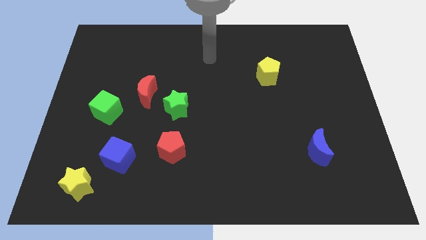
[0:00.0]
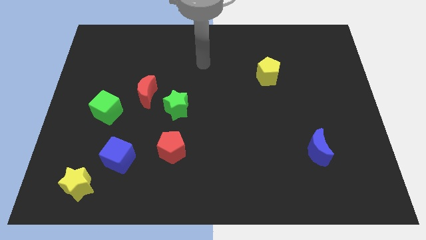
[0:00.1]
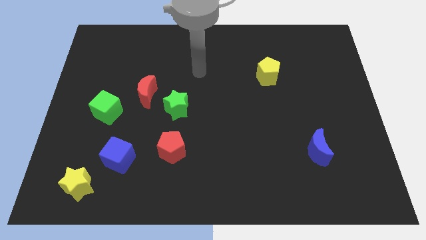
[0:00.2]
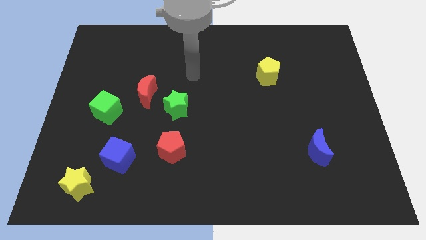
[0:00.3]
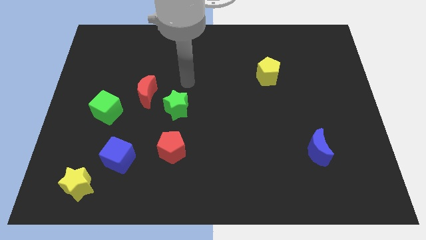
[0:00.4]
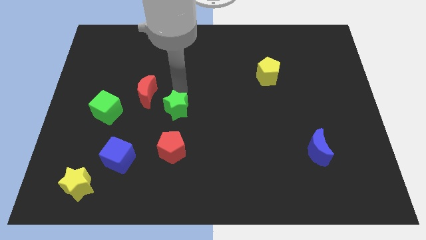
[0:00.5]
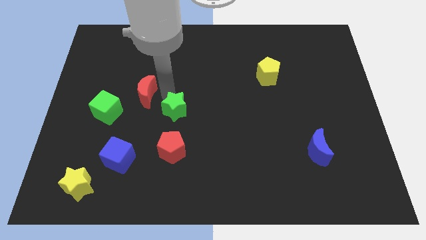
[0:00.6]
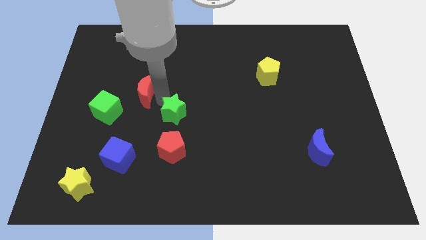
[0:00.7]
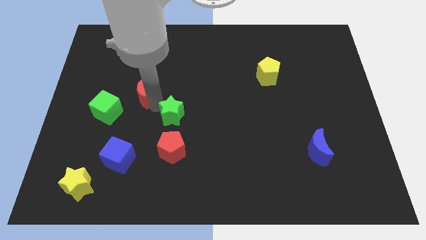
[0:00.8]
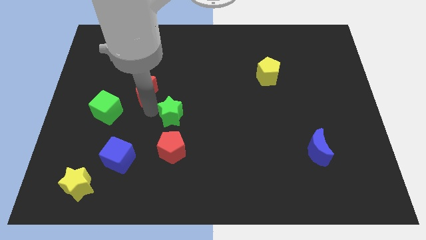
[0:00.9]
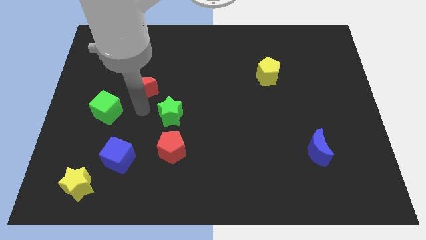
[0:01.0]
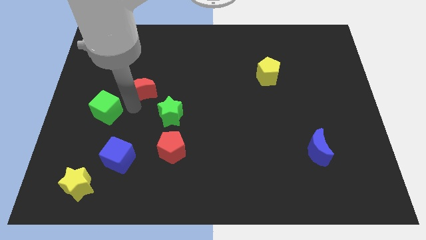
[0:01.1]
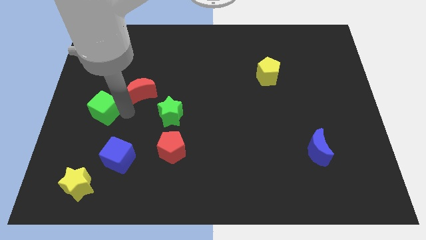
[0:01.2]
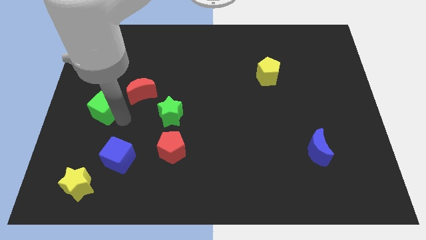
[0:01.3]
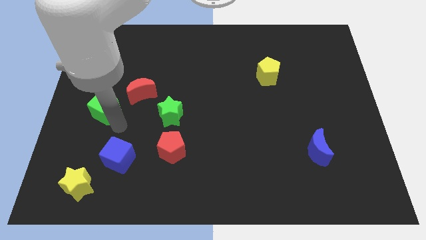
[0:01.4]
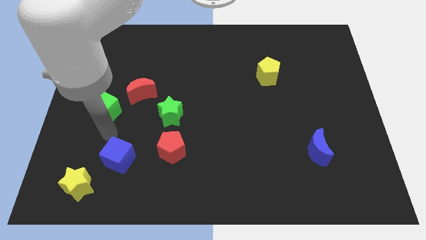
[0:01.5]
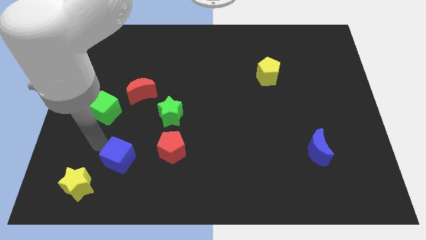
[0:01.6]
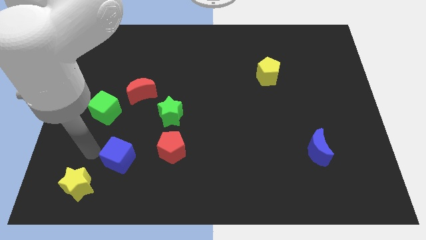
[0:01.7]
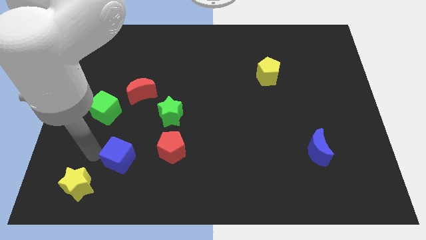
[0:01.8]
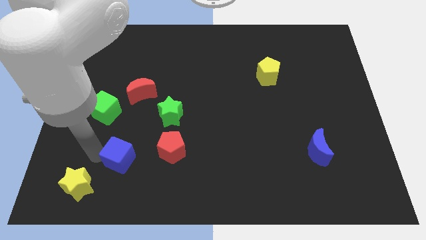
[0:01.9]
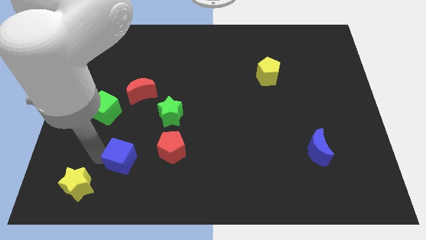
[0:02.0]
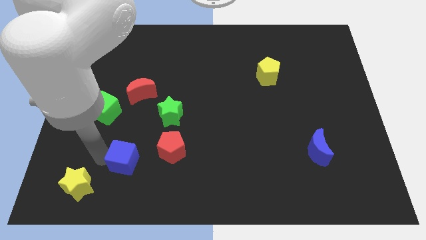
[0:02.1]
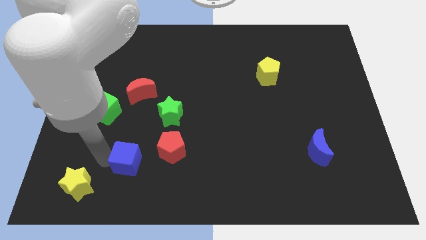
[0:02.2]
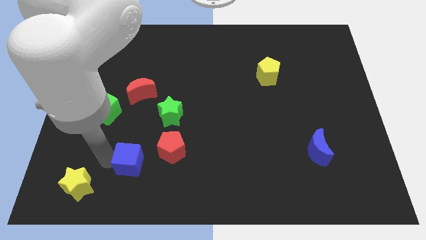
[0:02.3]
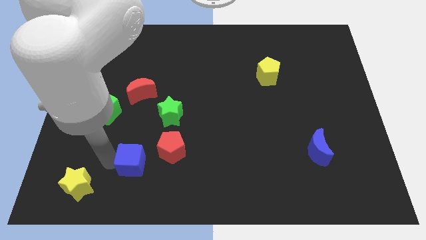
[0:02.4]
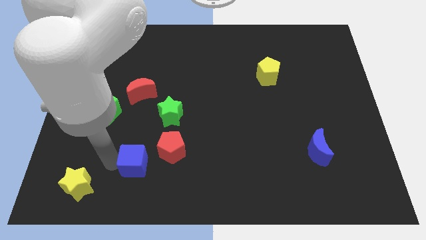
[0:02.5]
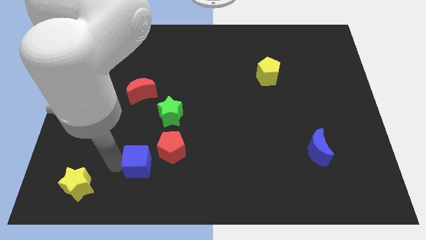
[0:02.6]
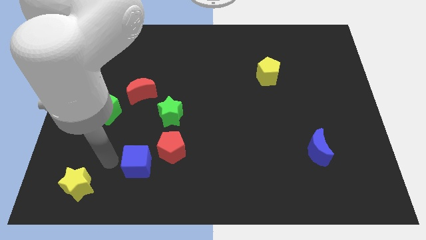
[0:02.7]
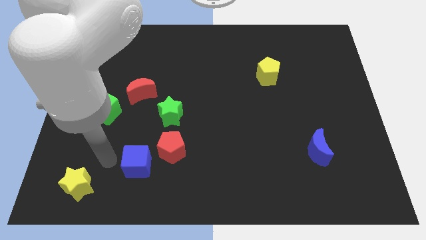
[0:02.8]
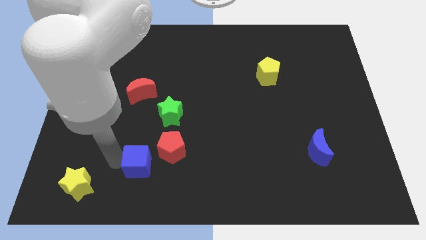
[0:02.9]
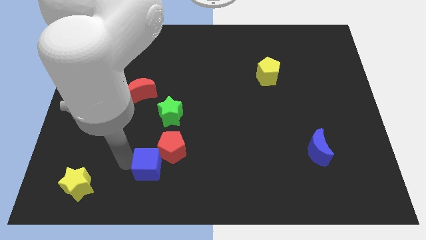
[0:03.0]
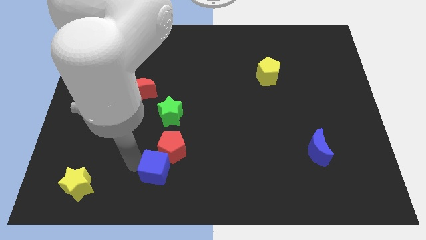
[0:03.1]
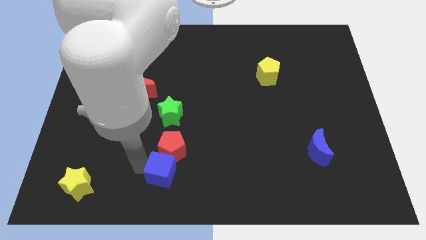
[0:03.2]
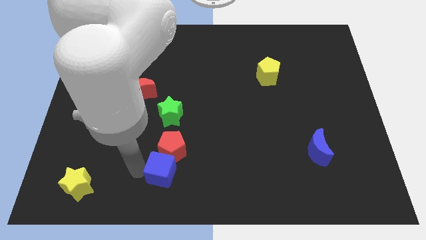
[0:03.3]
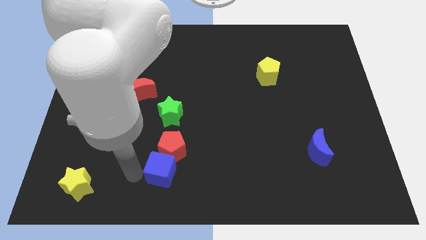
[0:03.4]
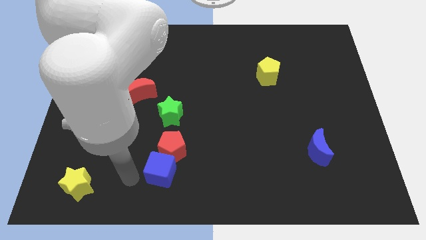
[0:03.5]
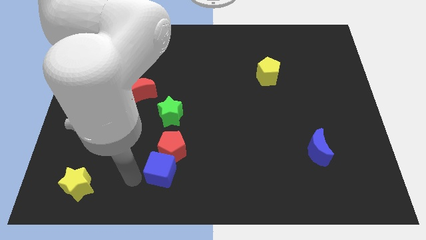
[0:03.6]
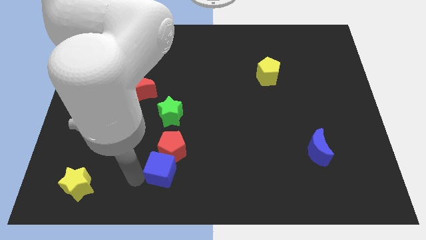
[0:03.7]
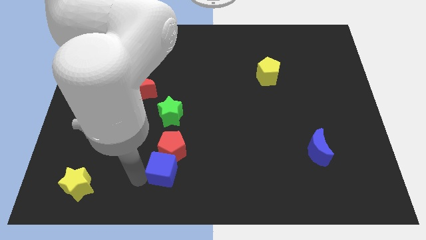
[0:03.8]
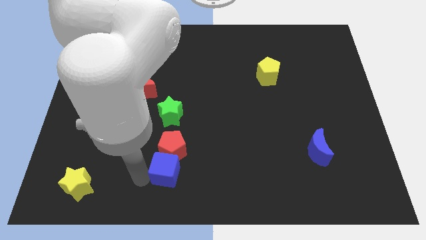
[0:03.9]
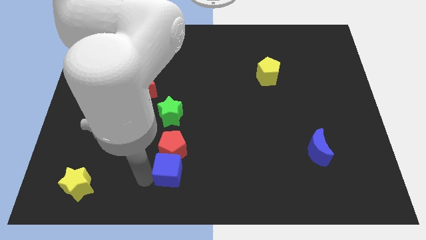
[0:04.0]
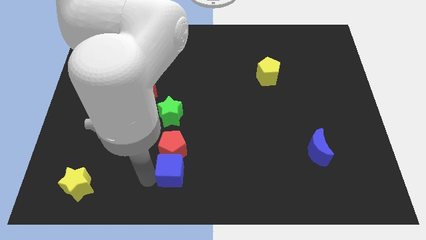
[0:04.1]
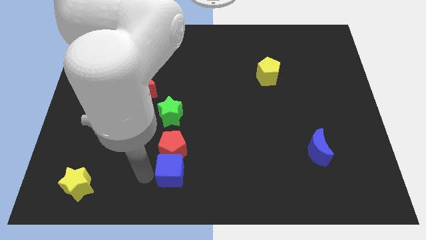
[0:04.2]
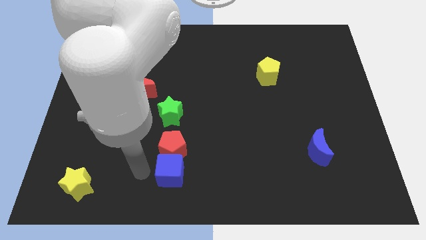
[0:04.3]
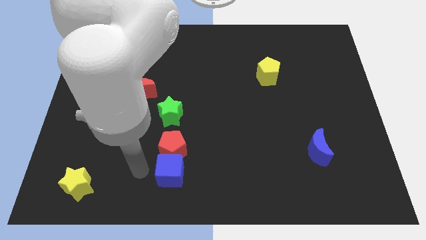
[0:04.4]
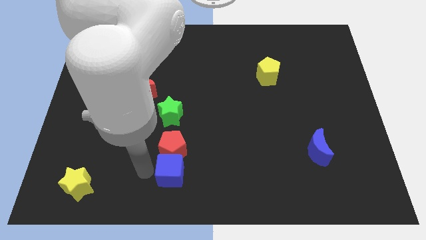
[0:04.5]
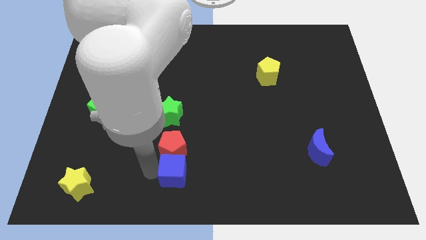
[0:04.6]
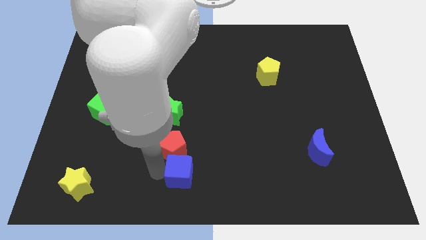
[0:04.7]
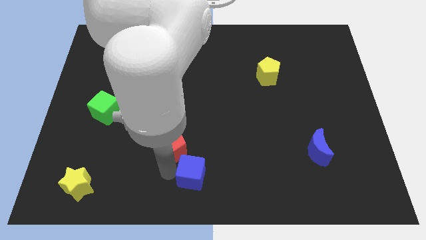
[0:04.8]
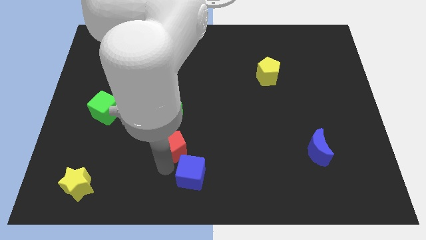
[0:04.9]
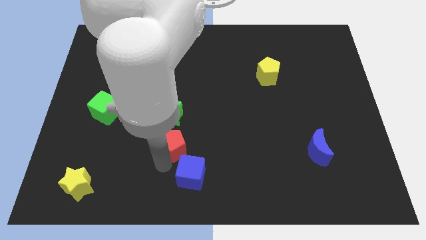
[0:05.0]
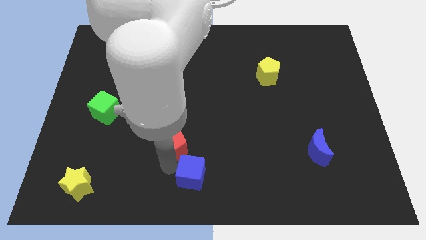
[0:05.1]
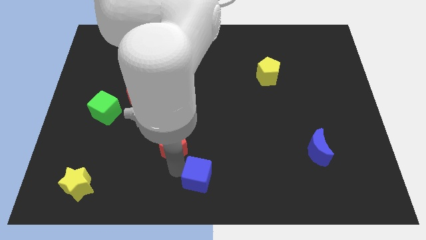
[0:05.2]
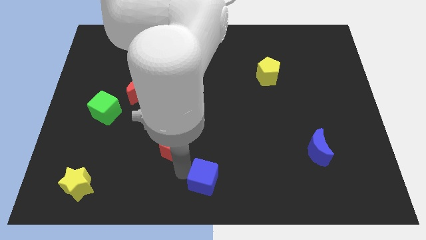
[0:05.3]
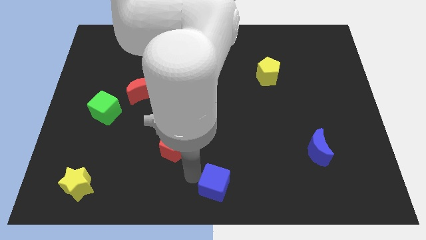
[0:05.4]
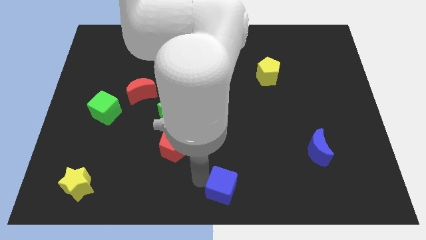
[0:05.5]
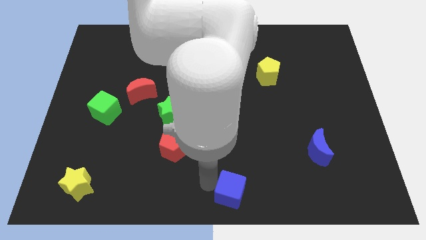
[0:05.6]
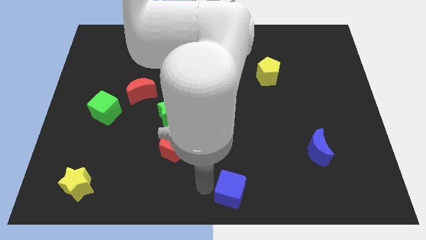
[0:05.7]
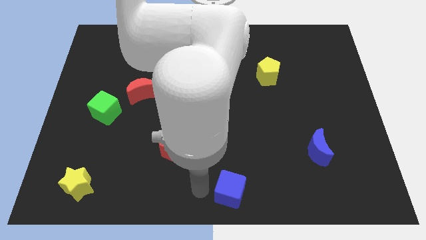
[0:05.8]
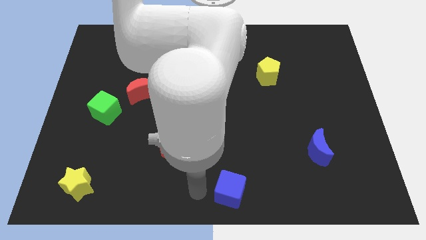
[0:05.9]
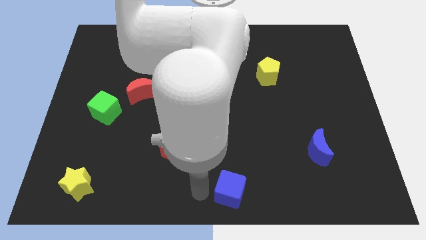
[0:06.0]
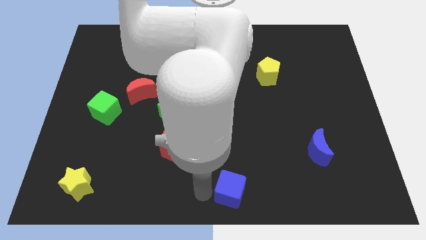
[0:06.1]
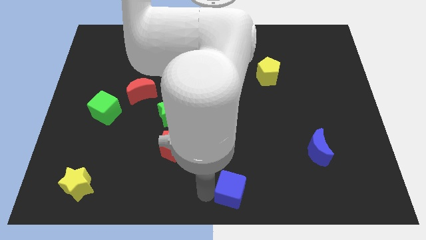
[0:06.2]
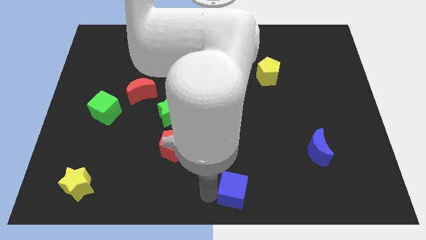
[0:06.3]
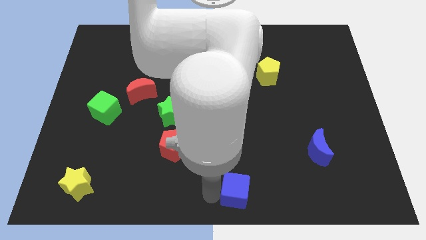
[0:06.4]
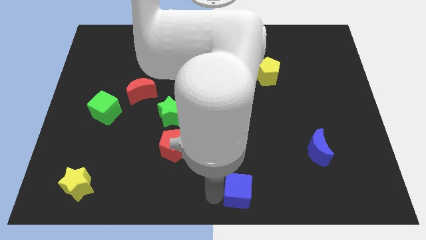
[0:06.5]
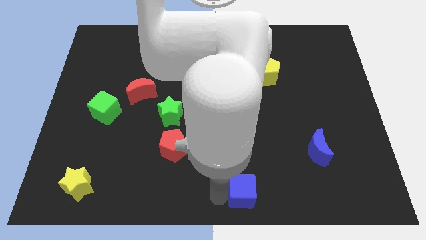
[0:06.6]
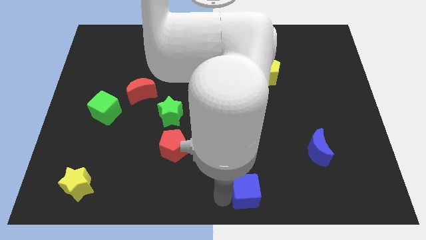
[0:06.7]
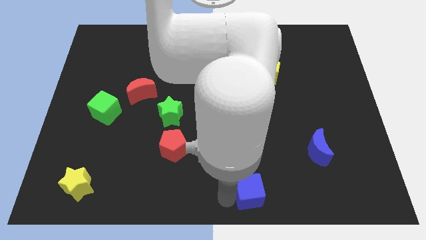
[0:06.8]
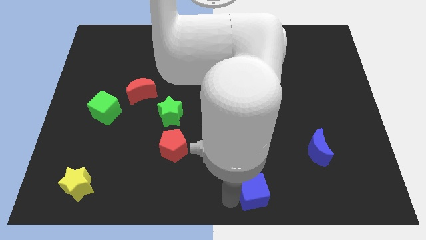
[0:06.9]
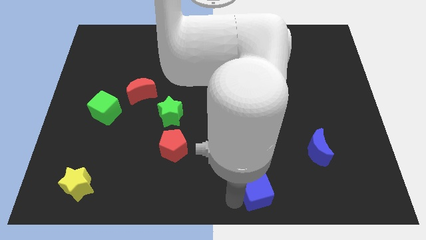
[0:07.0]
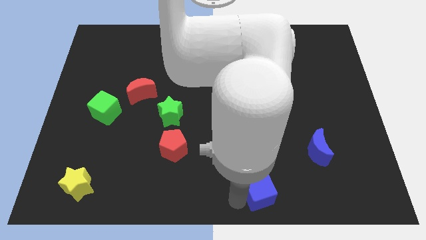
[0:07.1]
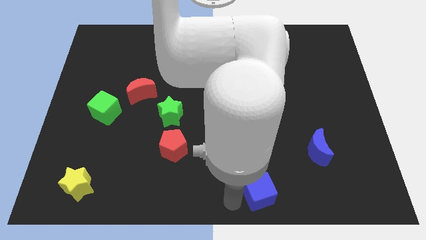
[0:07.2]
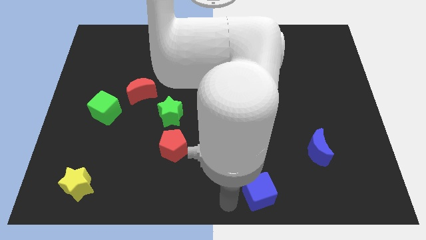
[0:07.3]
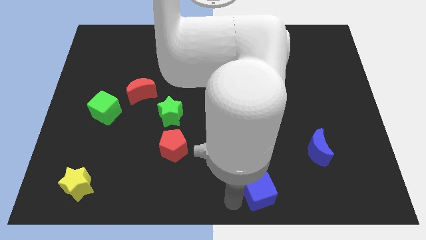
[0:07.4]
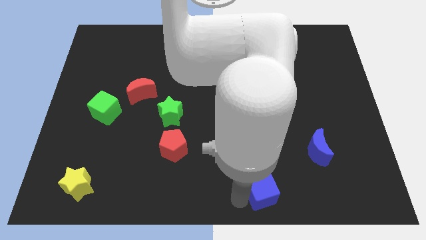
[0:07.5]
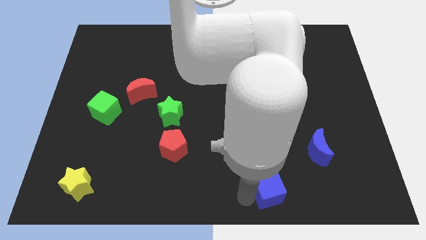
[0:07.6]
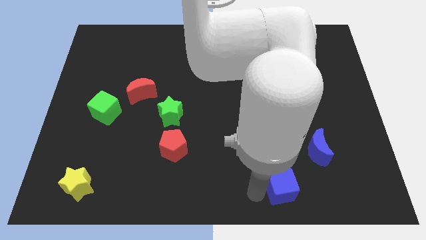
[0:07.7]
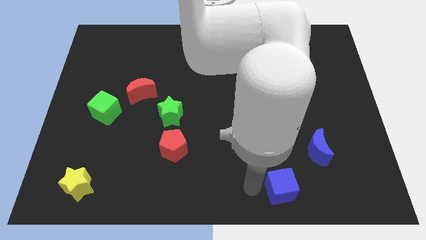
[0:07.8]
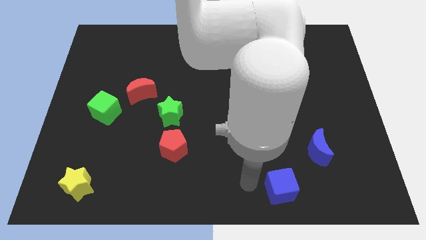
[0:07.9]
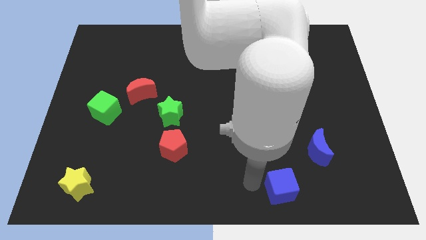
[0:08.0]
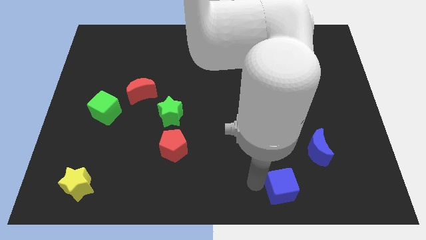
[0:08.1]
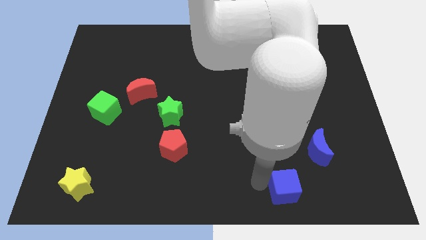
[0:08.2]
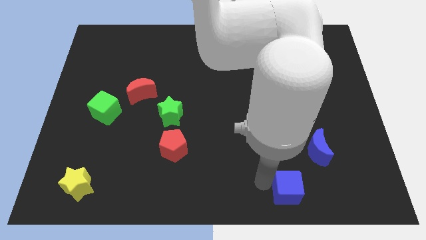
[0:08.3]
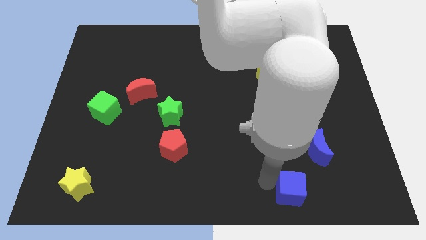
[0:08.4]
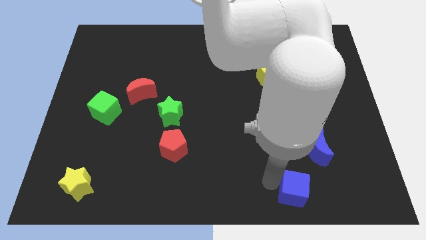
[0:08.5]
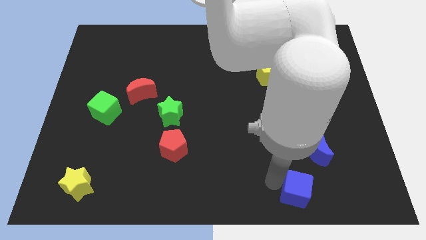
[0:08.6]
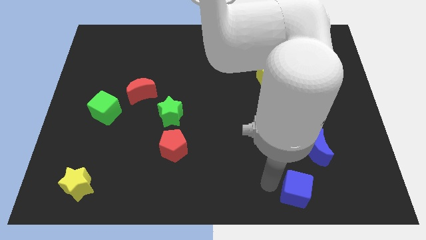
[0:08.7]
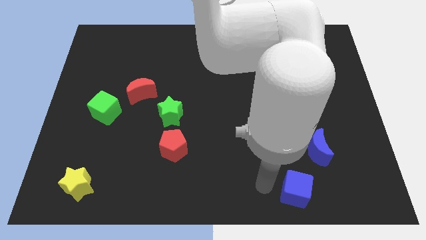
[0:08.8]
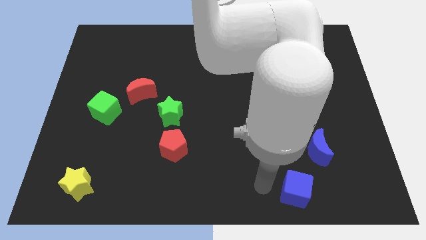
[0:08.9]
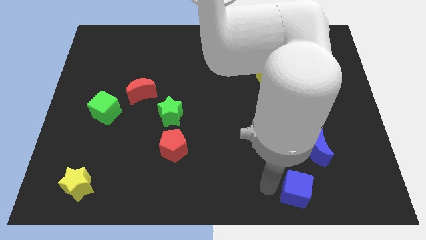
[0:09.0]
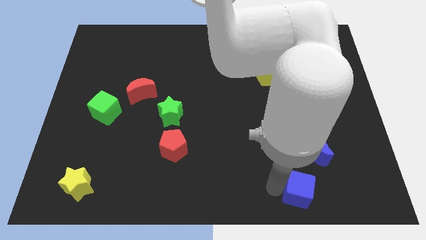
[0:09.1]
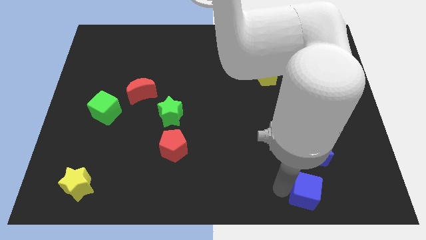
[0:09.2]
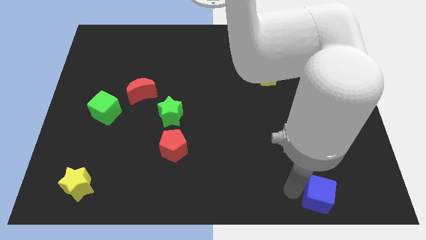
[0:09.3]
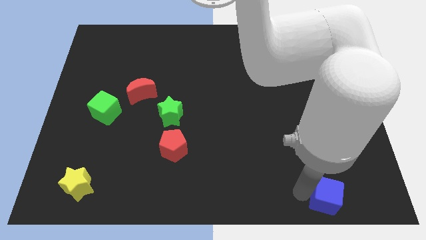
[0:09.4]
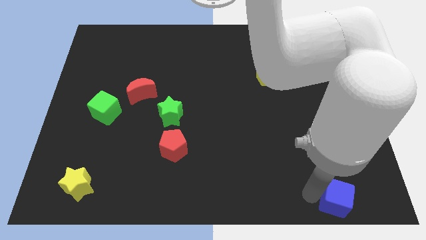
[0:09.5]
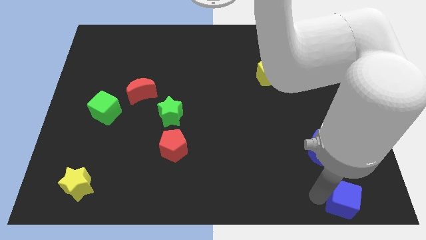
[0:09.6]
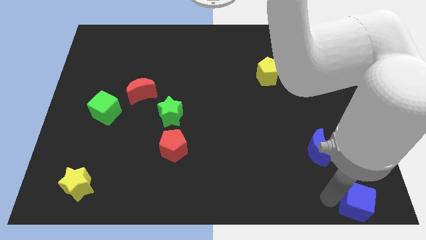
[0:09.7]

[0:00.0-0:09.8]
push the blue cube to the bottom right
